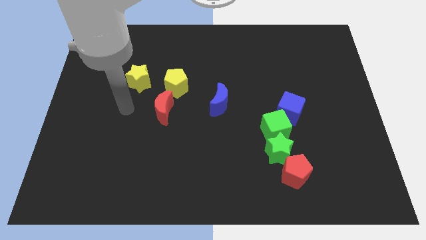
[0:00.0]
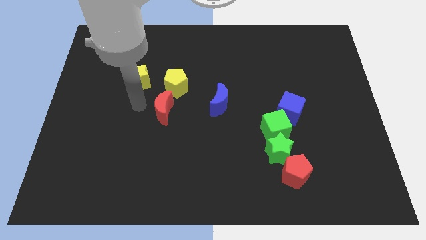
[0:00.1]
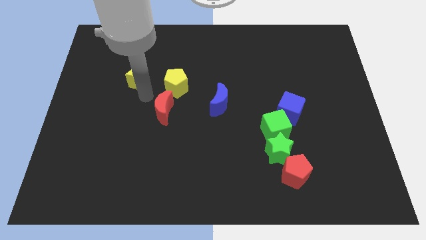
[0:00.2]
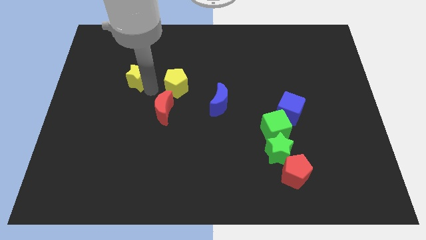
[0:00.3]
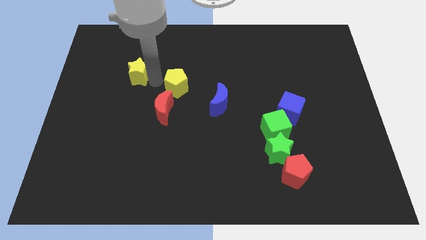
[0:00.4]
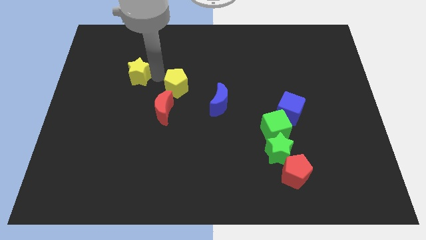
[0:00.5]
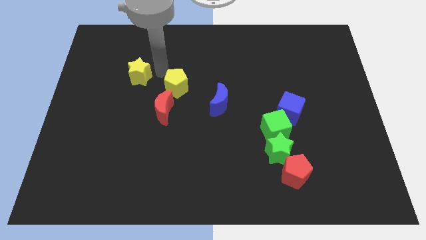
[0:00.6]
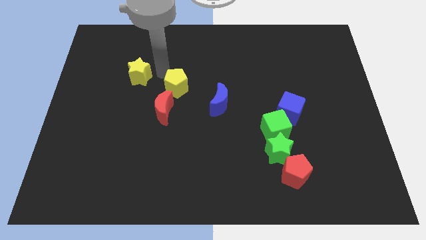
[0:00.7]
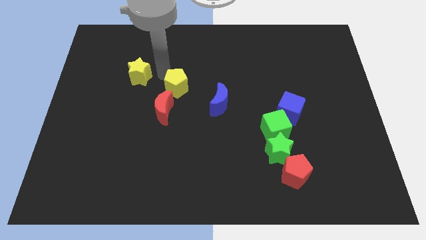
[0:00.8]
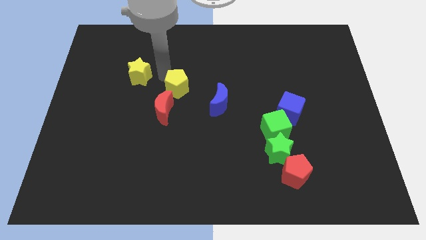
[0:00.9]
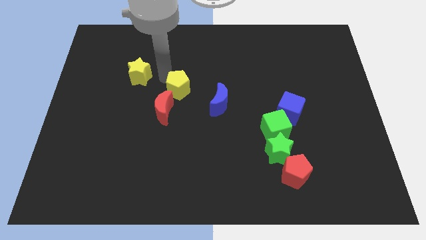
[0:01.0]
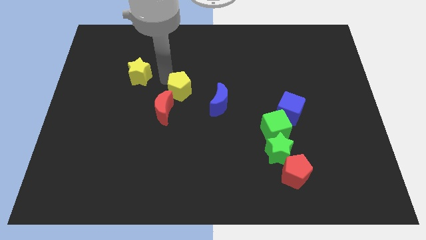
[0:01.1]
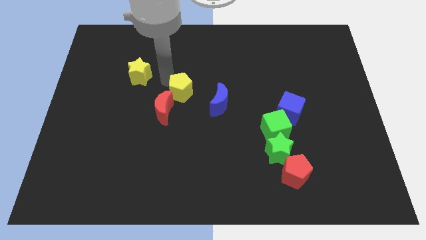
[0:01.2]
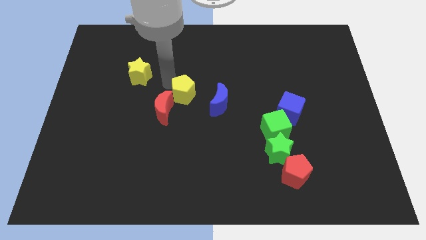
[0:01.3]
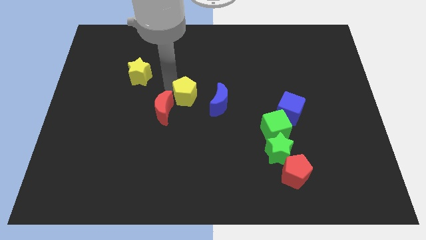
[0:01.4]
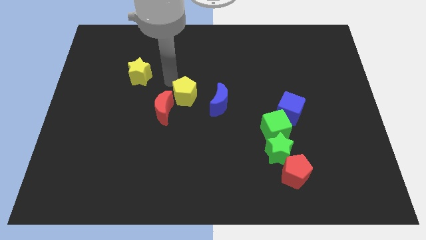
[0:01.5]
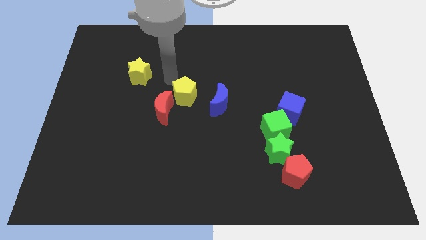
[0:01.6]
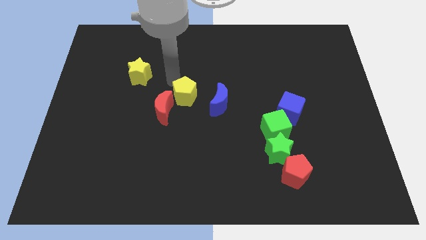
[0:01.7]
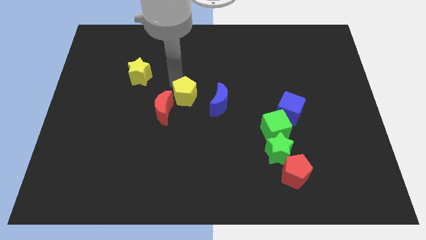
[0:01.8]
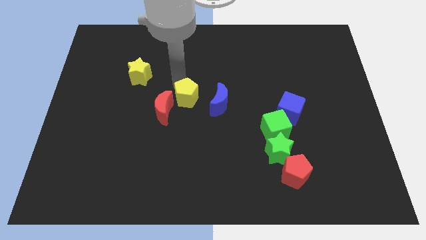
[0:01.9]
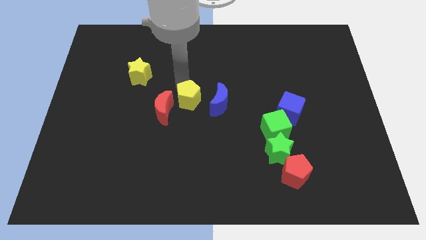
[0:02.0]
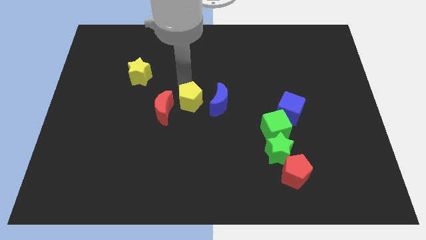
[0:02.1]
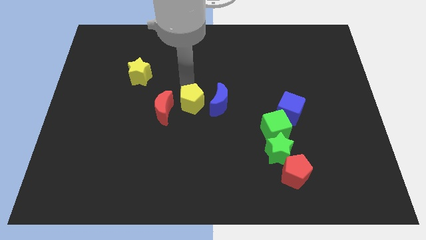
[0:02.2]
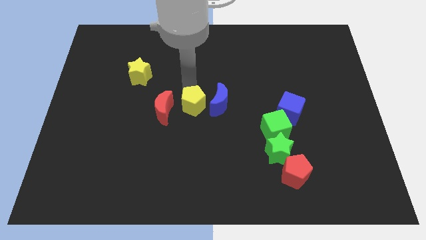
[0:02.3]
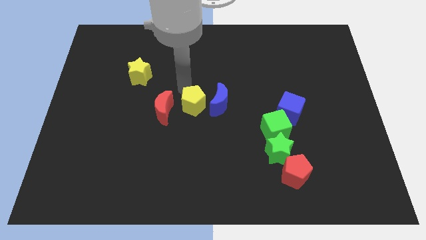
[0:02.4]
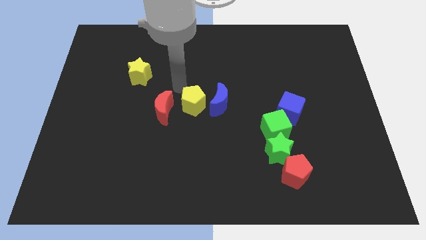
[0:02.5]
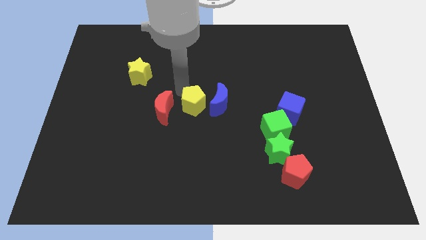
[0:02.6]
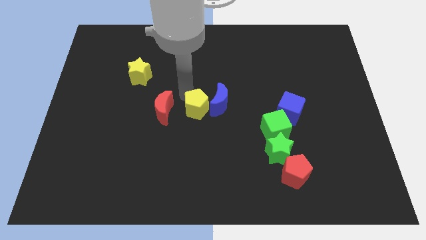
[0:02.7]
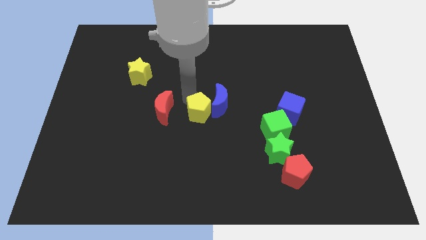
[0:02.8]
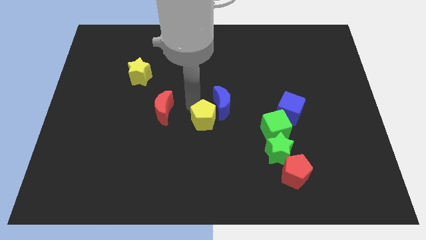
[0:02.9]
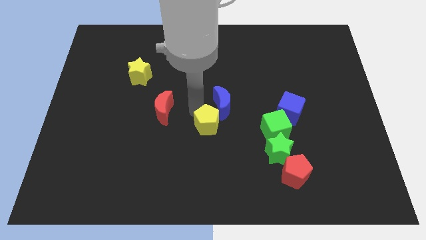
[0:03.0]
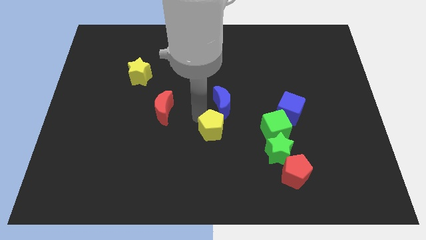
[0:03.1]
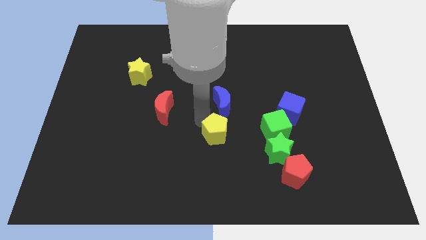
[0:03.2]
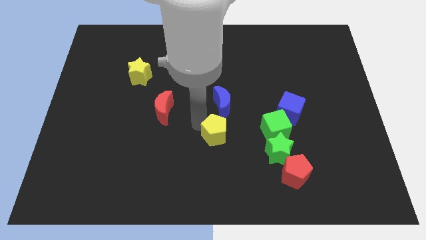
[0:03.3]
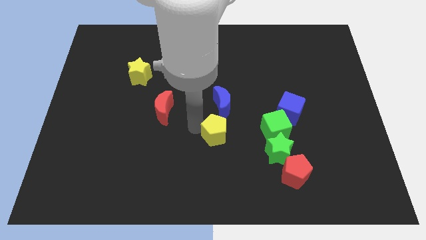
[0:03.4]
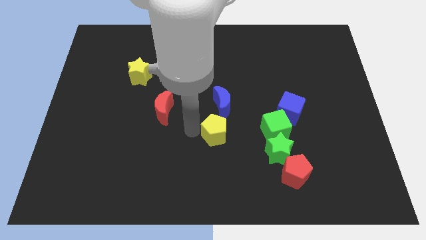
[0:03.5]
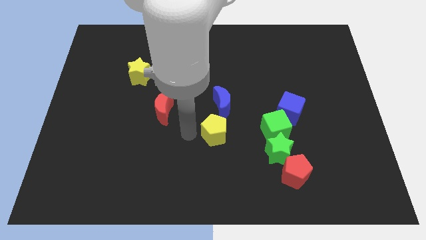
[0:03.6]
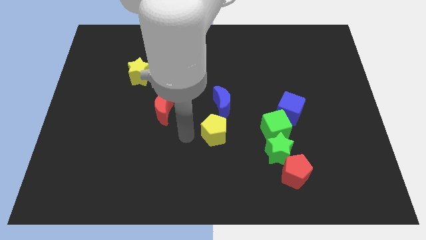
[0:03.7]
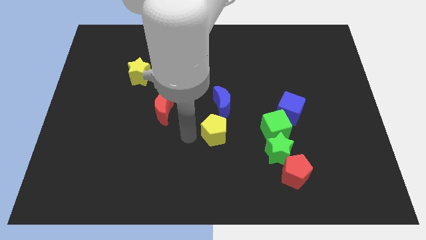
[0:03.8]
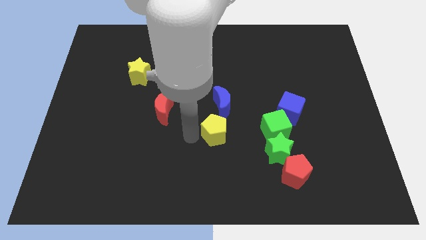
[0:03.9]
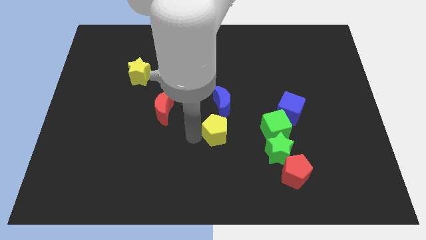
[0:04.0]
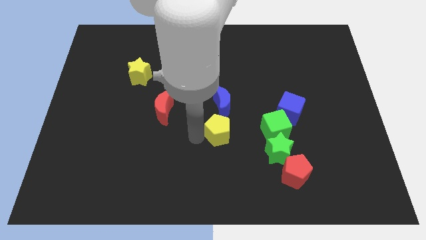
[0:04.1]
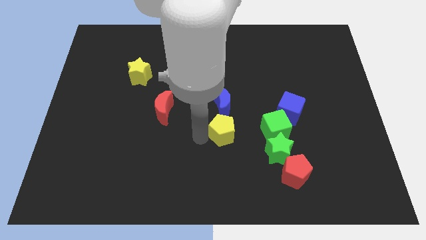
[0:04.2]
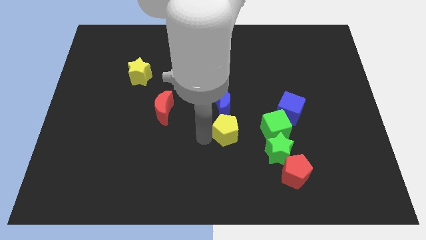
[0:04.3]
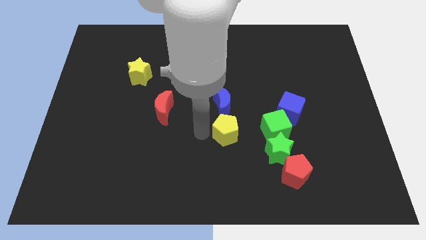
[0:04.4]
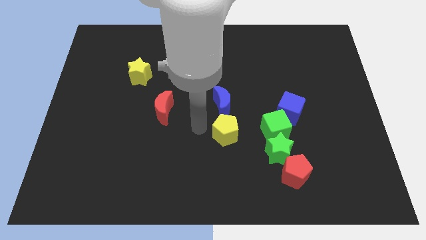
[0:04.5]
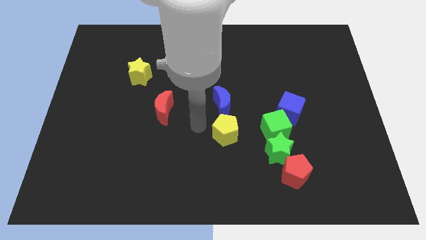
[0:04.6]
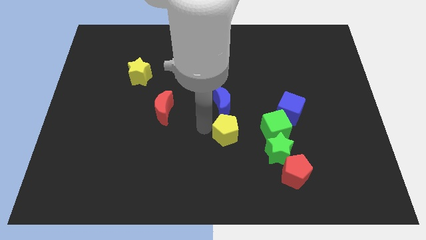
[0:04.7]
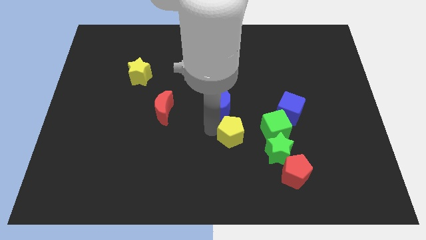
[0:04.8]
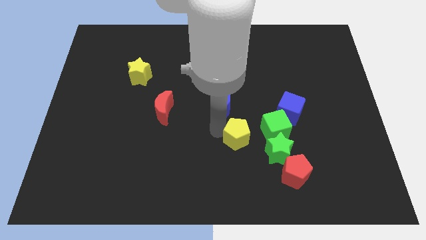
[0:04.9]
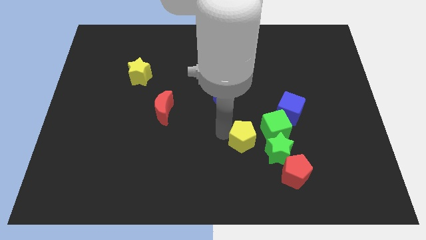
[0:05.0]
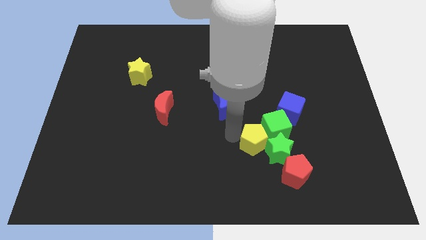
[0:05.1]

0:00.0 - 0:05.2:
push the yellow pentagon next to the green star

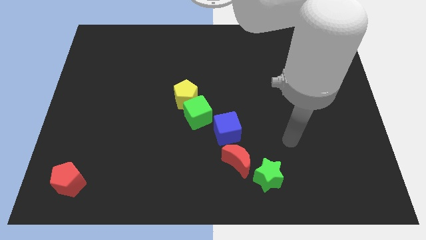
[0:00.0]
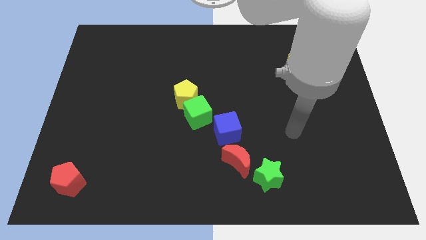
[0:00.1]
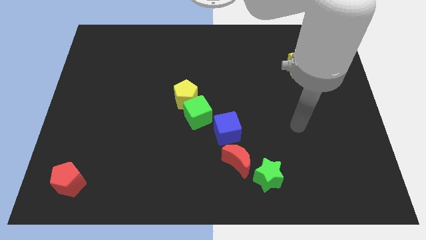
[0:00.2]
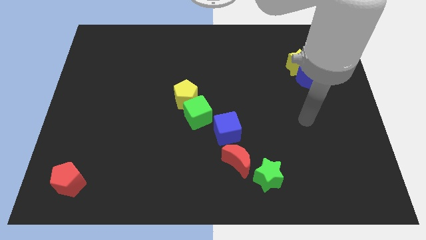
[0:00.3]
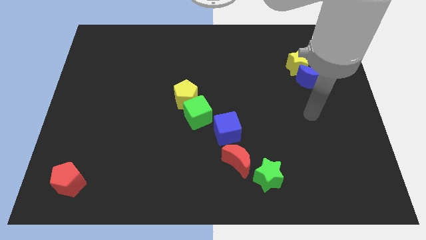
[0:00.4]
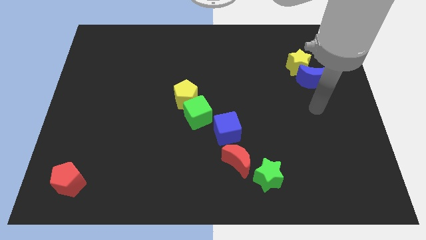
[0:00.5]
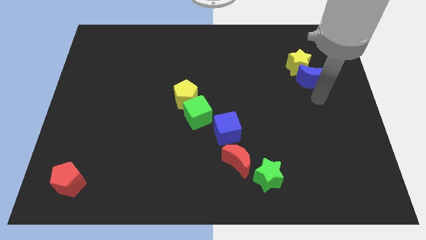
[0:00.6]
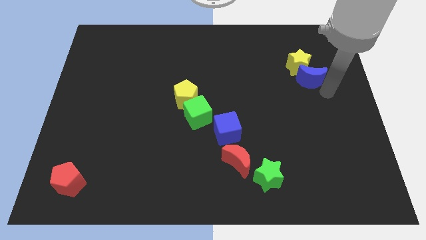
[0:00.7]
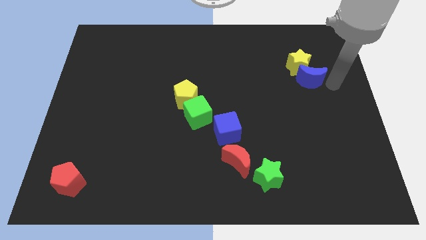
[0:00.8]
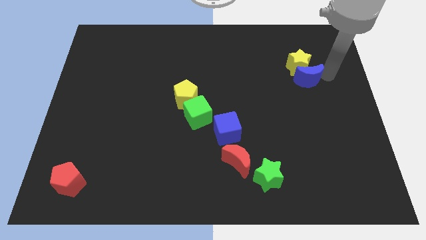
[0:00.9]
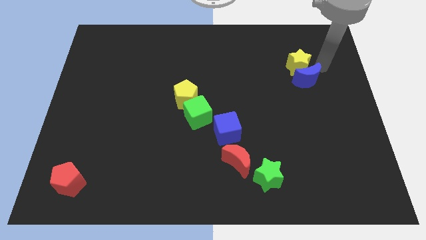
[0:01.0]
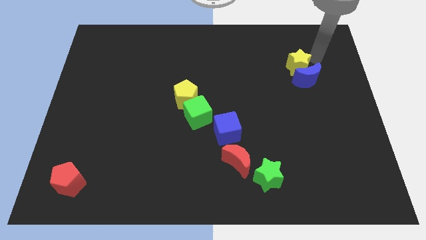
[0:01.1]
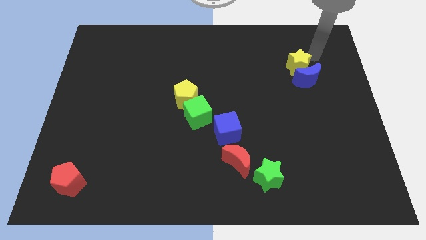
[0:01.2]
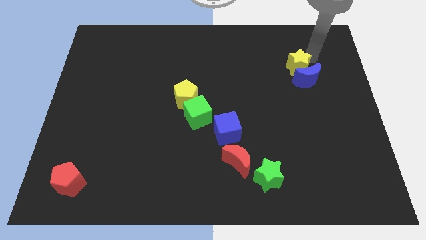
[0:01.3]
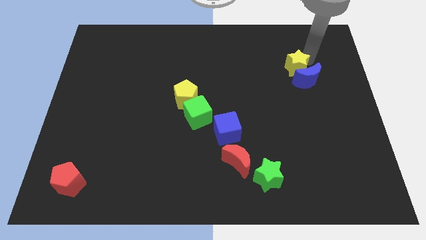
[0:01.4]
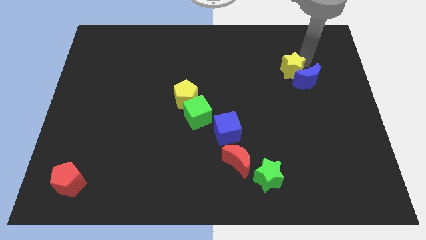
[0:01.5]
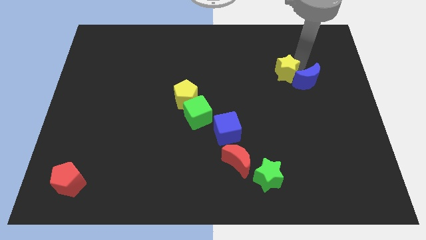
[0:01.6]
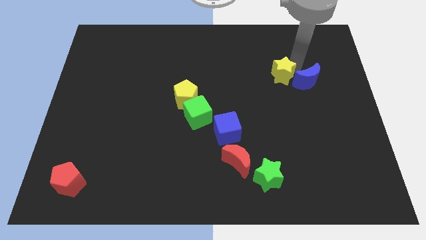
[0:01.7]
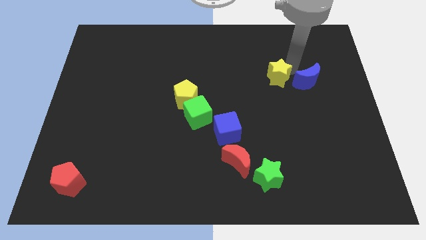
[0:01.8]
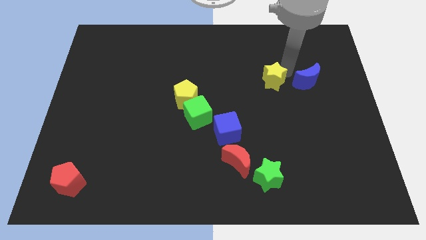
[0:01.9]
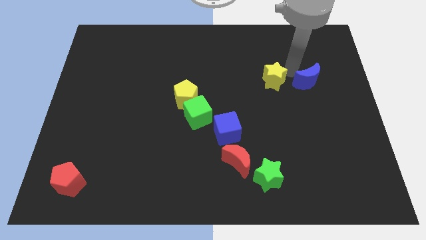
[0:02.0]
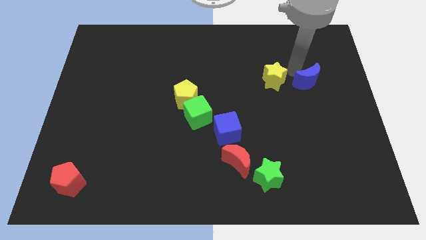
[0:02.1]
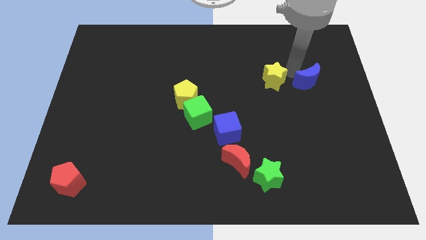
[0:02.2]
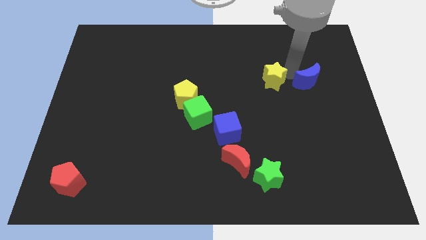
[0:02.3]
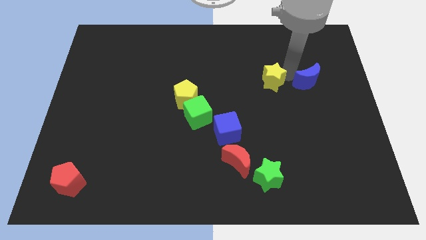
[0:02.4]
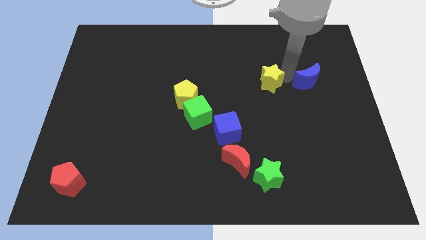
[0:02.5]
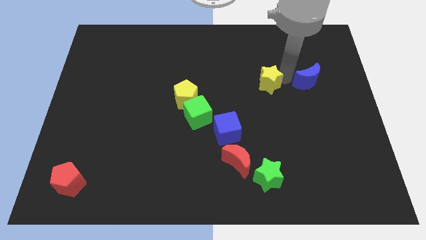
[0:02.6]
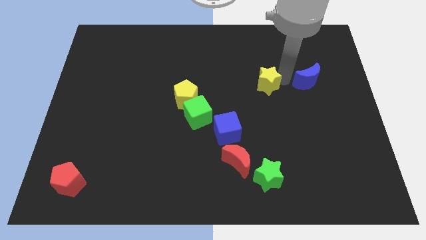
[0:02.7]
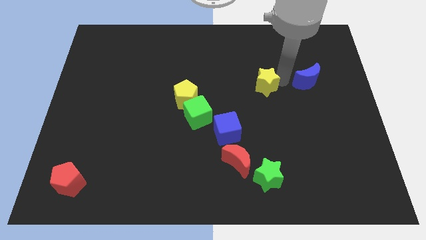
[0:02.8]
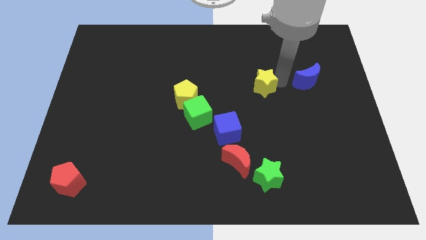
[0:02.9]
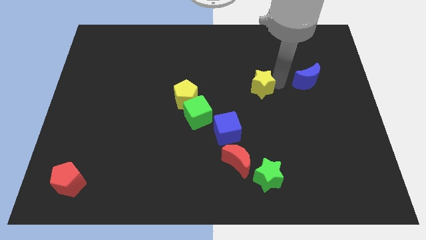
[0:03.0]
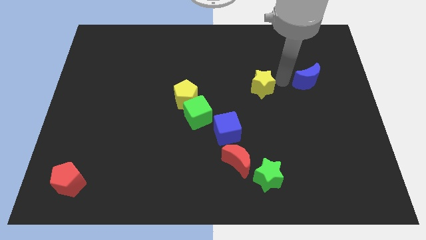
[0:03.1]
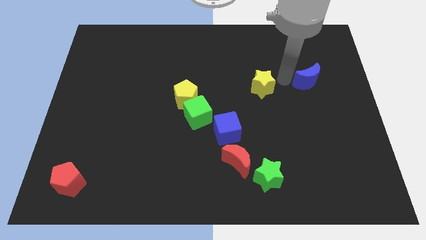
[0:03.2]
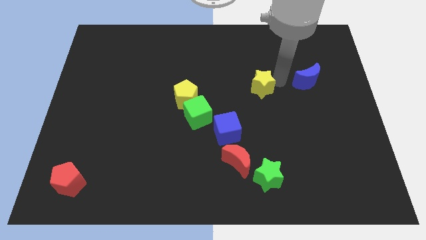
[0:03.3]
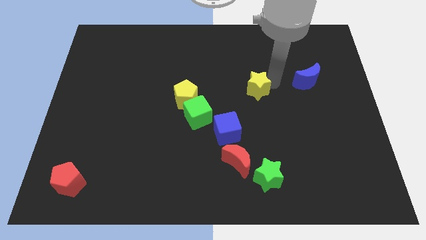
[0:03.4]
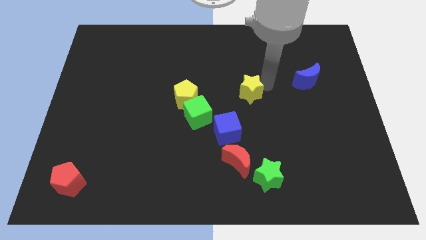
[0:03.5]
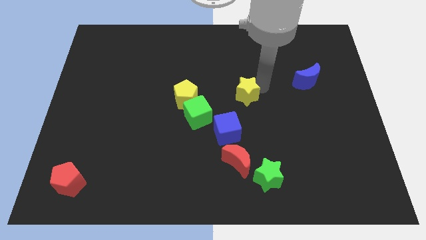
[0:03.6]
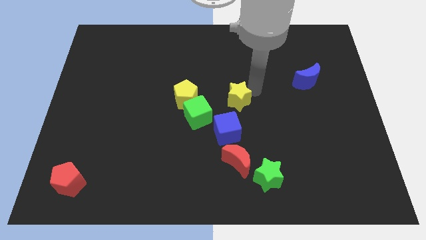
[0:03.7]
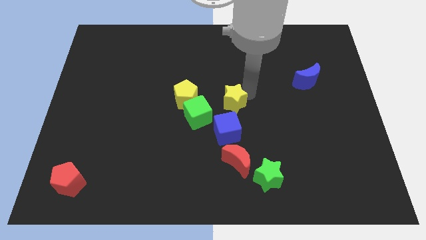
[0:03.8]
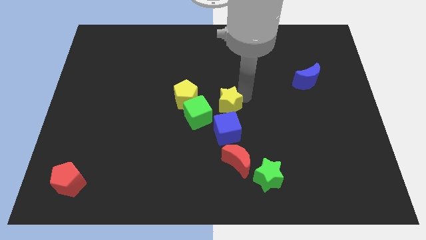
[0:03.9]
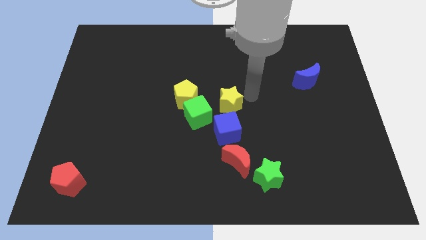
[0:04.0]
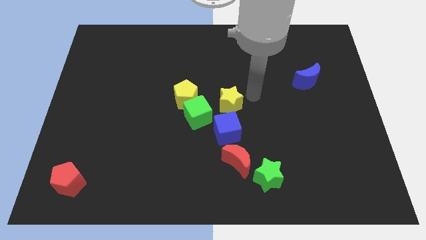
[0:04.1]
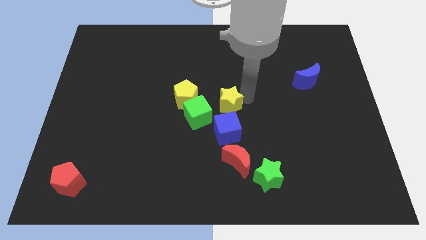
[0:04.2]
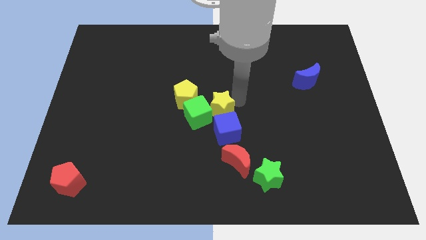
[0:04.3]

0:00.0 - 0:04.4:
slide the yellow star close to the green cube
